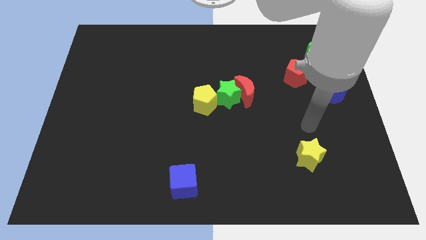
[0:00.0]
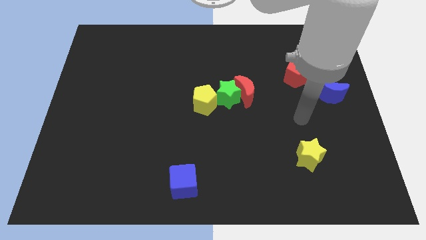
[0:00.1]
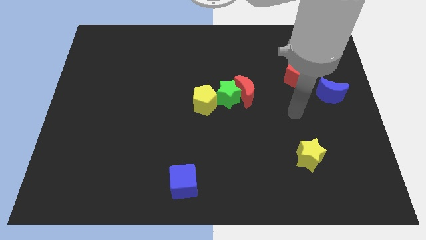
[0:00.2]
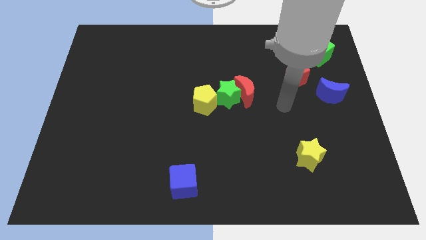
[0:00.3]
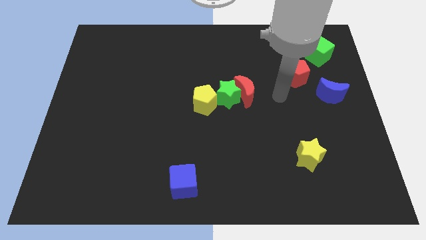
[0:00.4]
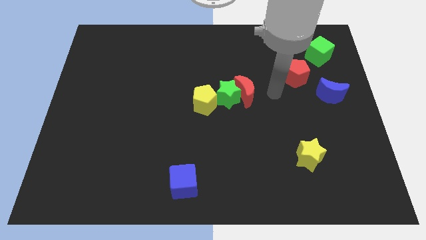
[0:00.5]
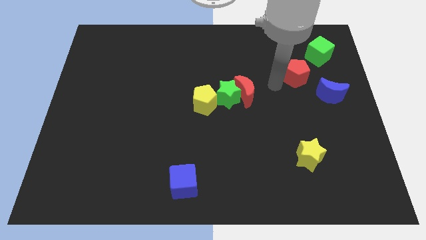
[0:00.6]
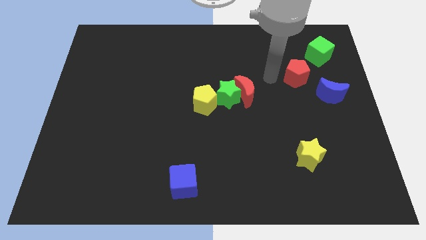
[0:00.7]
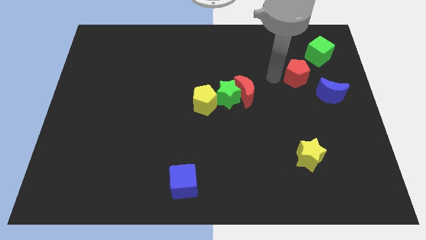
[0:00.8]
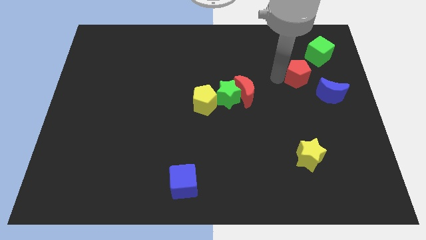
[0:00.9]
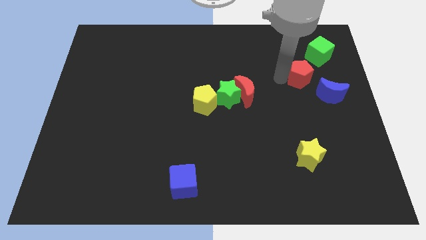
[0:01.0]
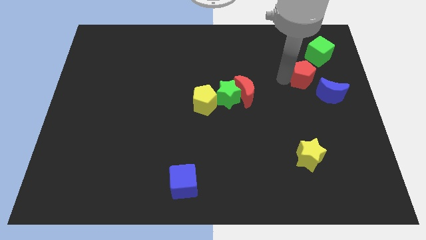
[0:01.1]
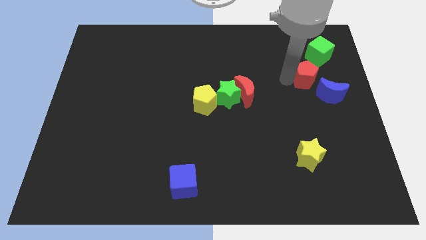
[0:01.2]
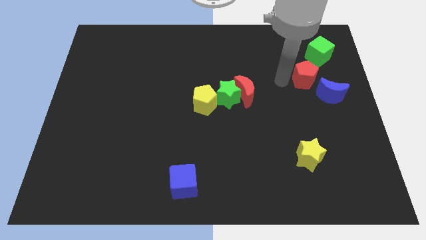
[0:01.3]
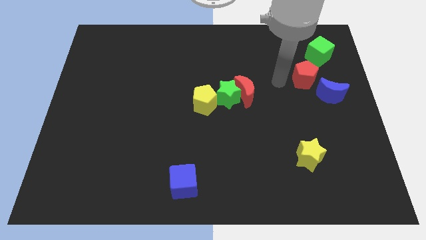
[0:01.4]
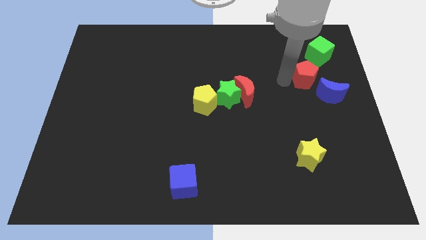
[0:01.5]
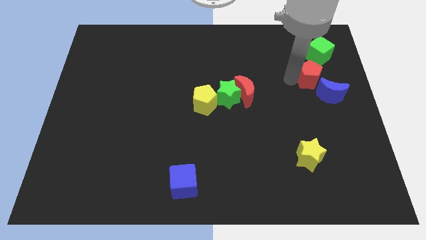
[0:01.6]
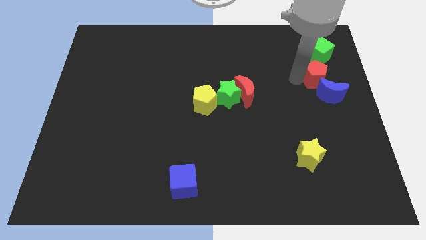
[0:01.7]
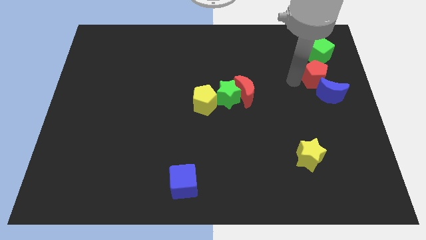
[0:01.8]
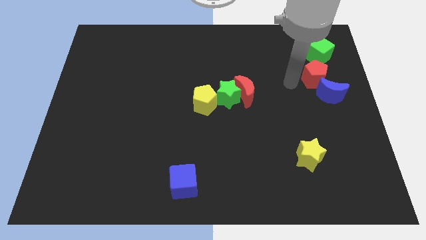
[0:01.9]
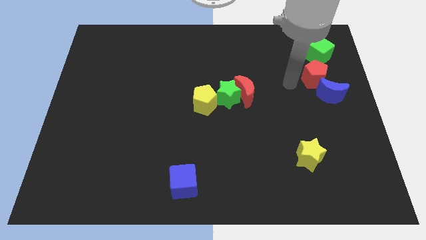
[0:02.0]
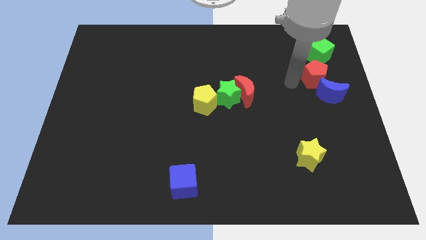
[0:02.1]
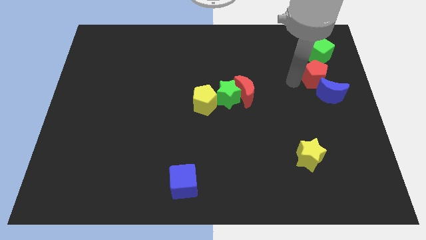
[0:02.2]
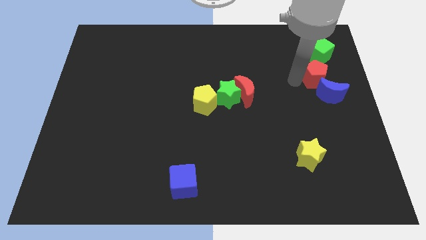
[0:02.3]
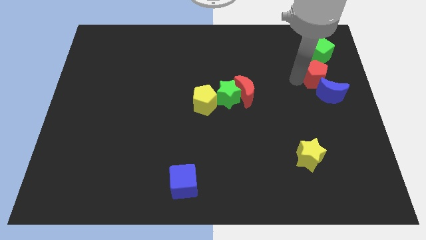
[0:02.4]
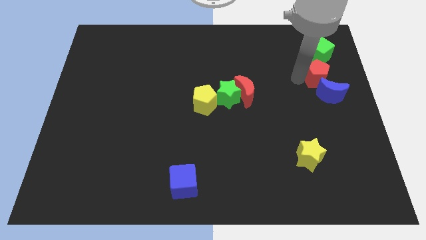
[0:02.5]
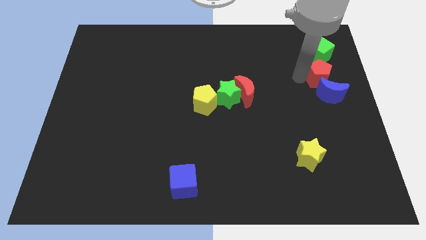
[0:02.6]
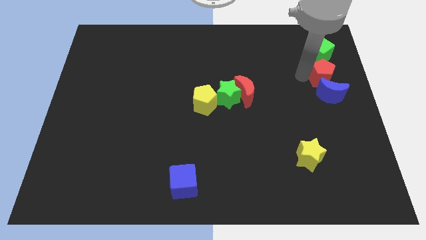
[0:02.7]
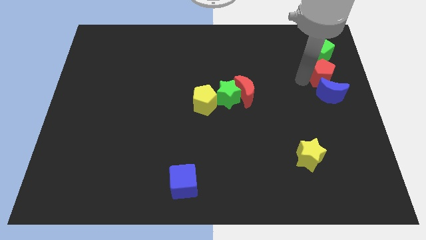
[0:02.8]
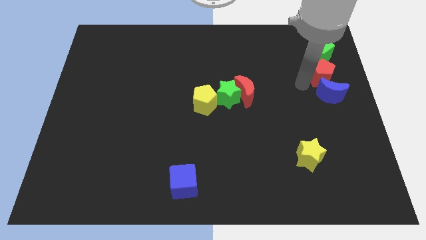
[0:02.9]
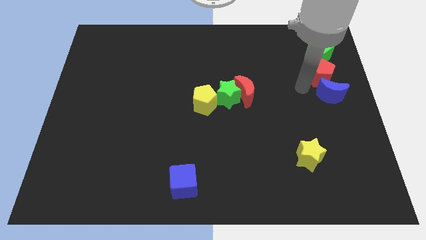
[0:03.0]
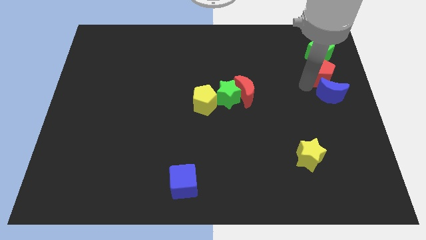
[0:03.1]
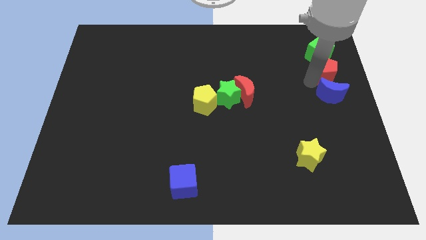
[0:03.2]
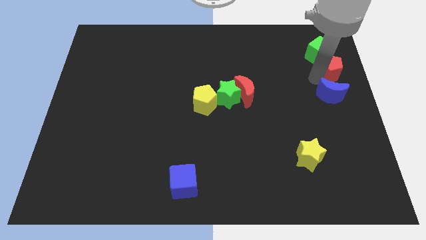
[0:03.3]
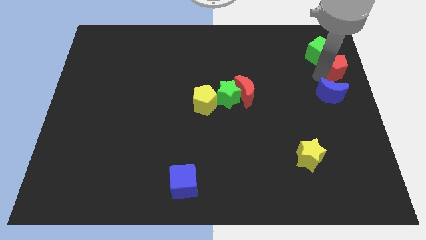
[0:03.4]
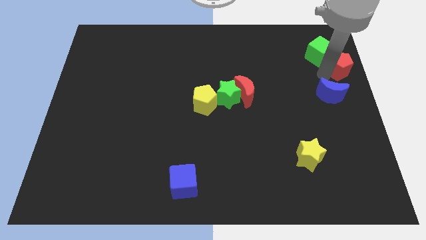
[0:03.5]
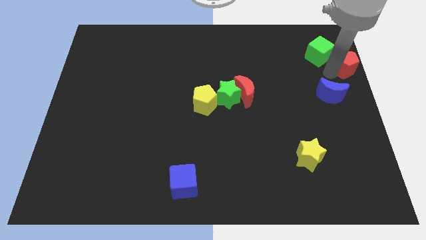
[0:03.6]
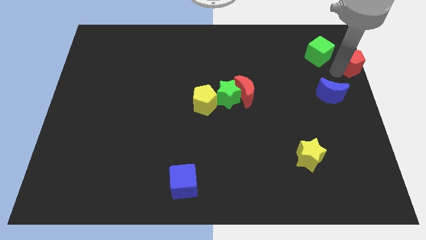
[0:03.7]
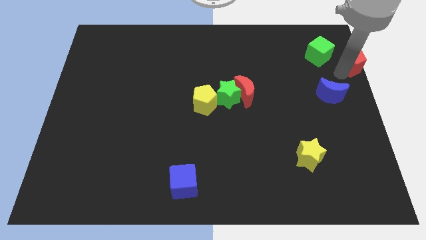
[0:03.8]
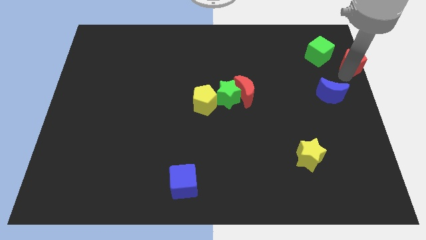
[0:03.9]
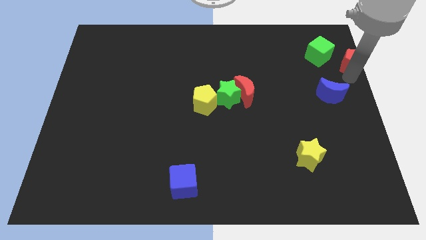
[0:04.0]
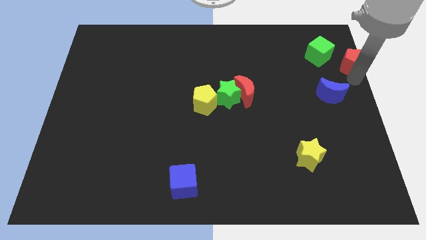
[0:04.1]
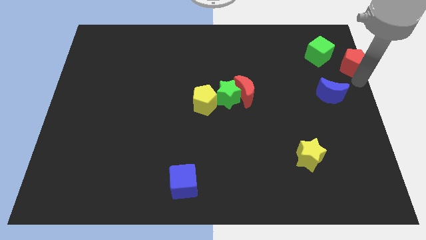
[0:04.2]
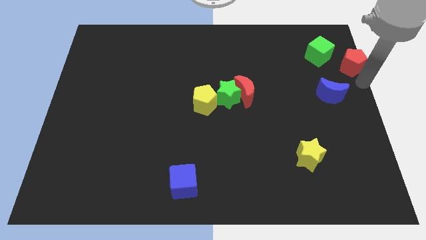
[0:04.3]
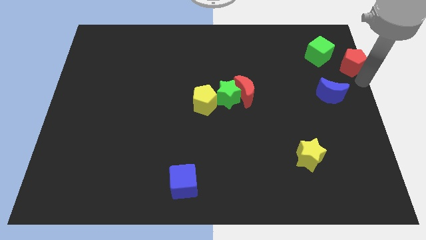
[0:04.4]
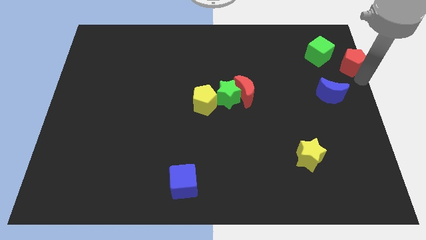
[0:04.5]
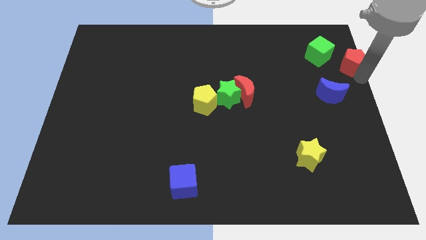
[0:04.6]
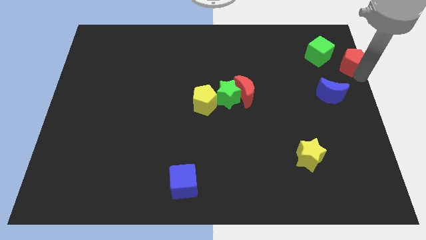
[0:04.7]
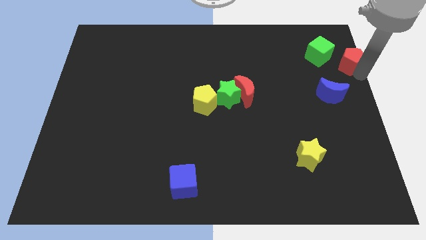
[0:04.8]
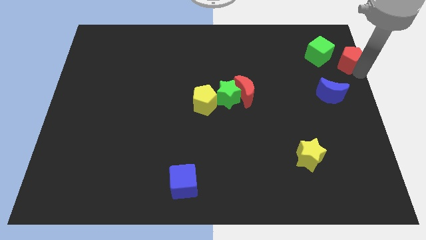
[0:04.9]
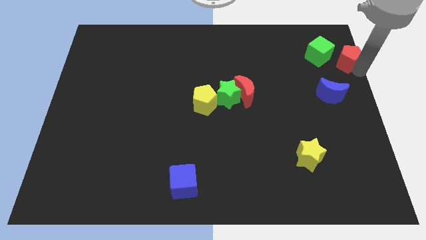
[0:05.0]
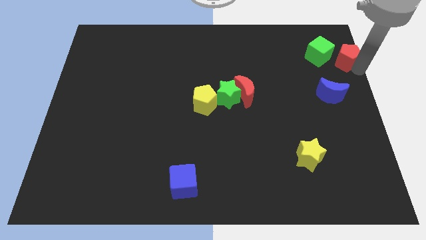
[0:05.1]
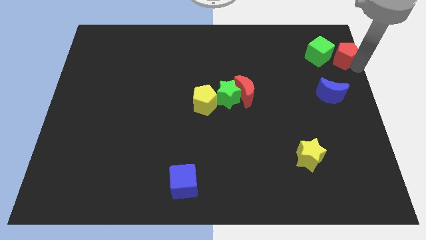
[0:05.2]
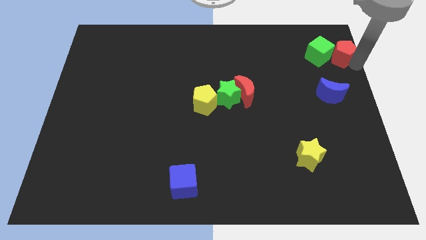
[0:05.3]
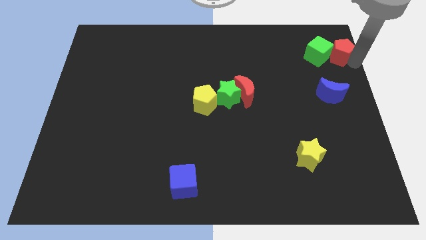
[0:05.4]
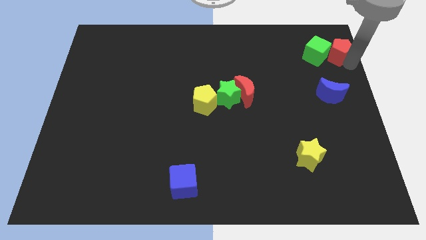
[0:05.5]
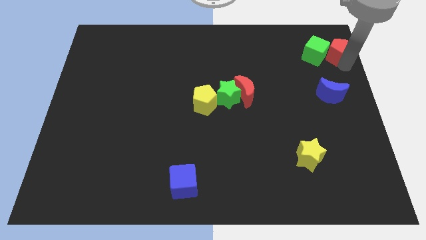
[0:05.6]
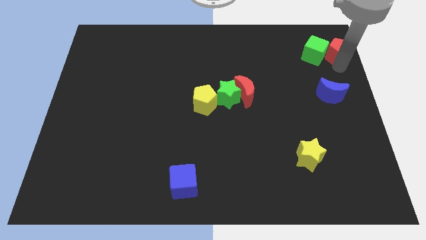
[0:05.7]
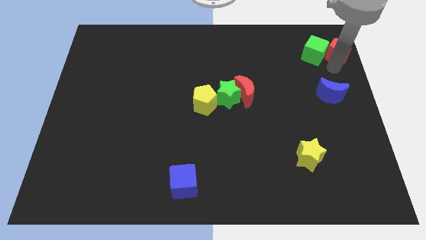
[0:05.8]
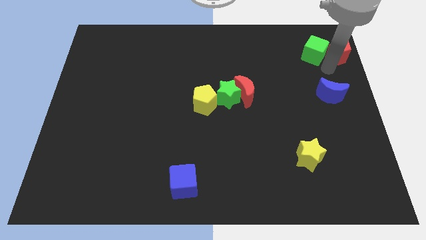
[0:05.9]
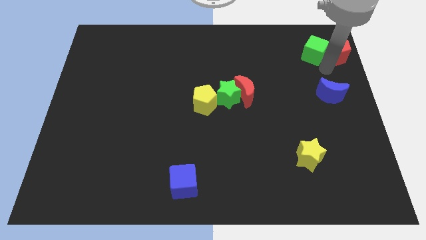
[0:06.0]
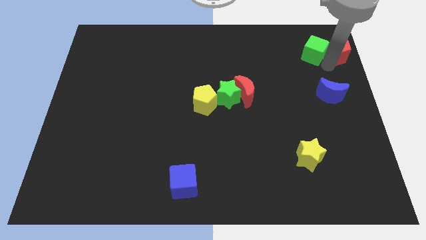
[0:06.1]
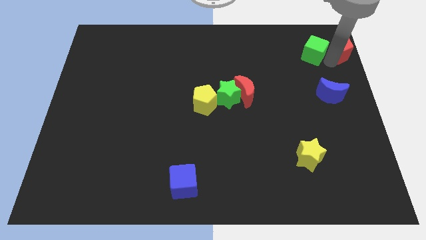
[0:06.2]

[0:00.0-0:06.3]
slide the red pentagon to the top right

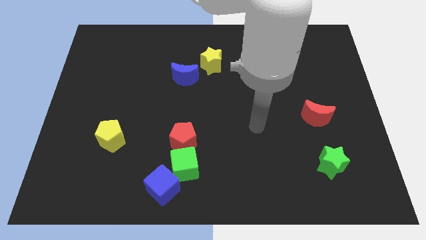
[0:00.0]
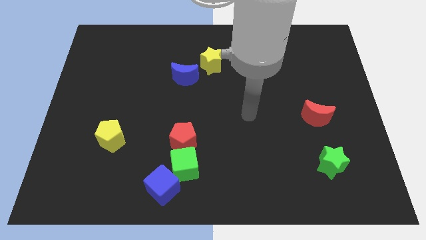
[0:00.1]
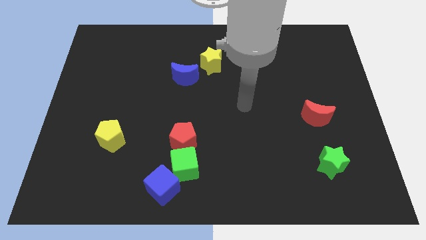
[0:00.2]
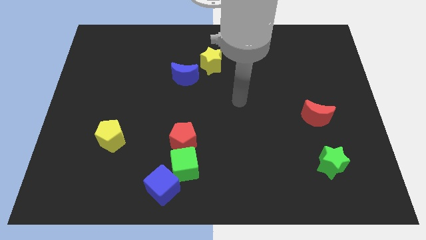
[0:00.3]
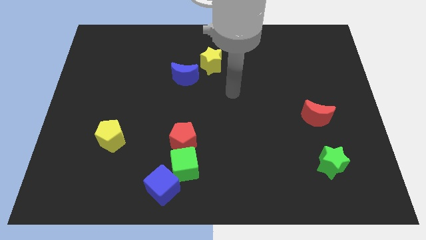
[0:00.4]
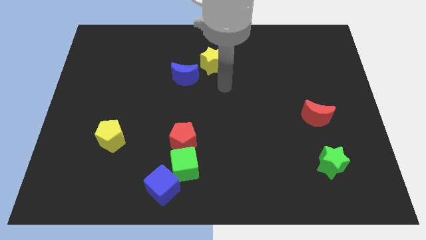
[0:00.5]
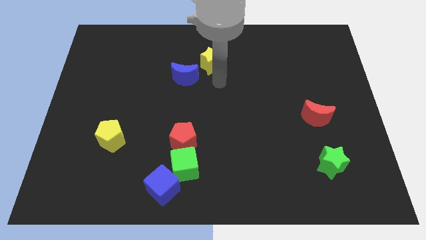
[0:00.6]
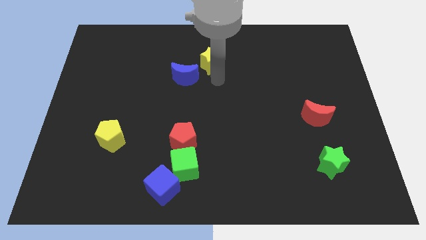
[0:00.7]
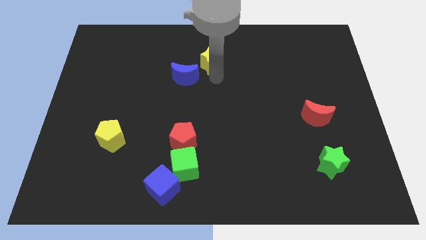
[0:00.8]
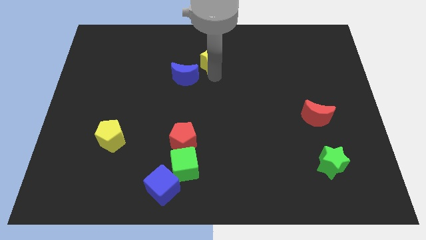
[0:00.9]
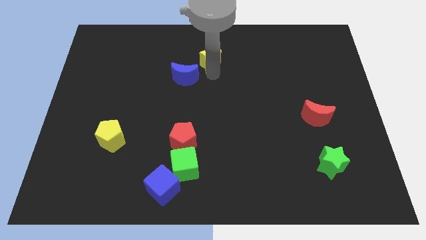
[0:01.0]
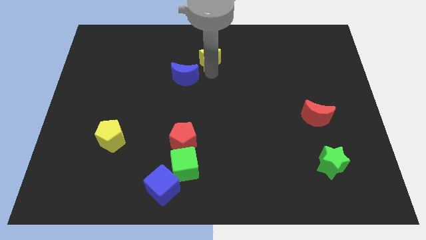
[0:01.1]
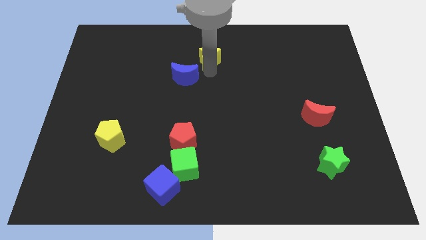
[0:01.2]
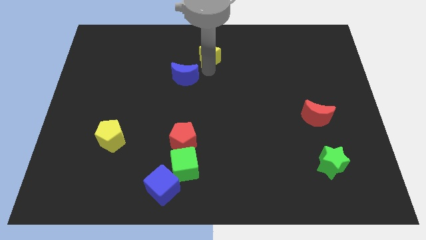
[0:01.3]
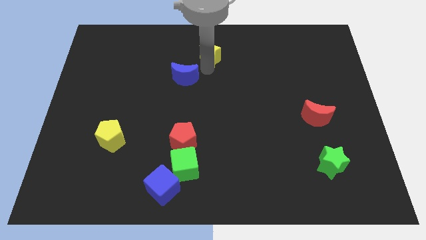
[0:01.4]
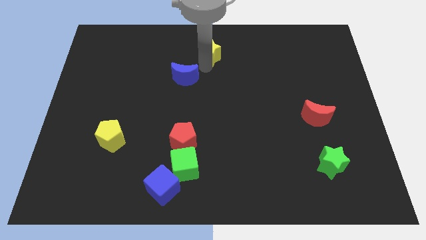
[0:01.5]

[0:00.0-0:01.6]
push the yellow star to the top
